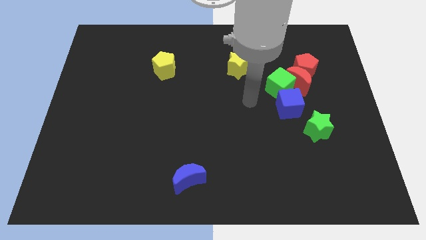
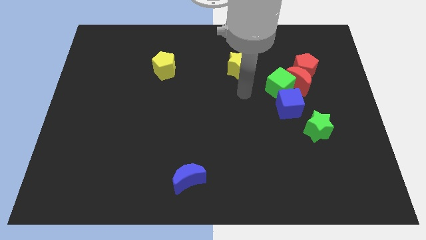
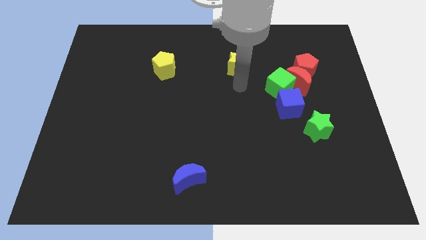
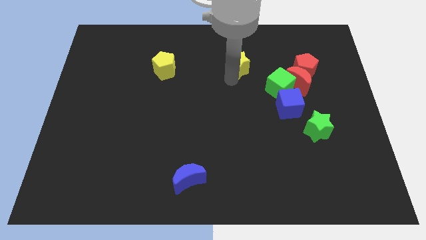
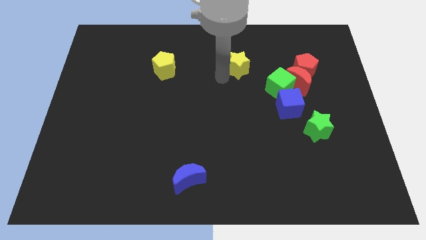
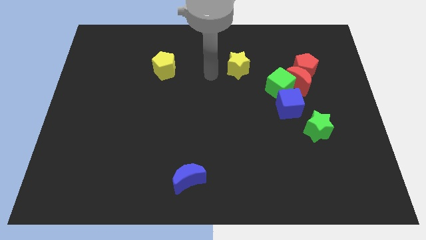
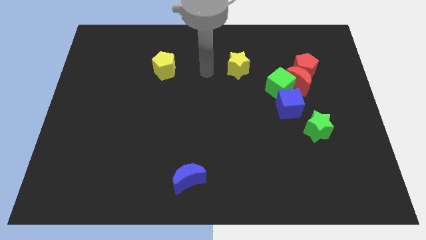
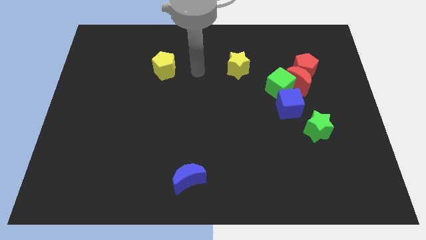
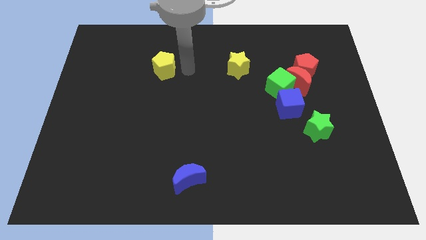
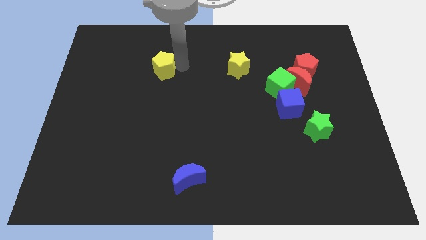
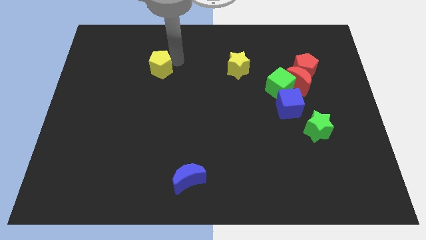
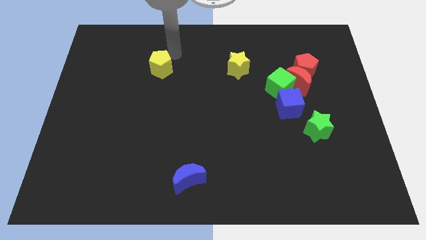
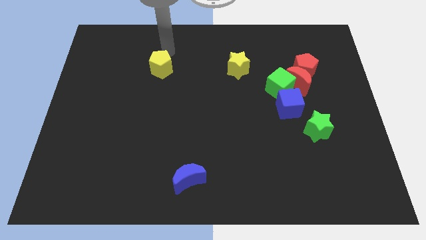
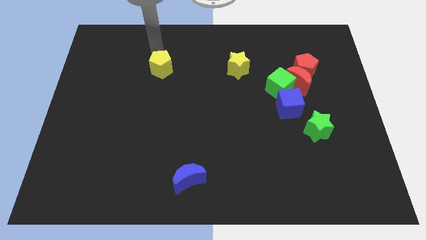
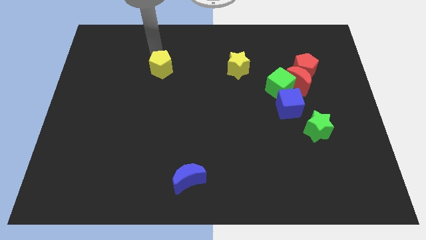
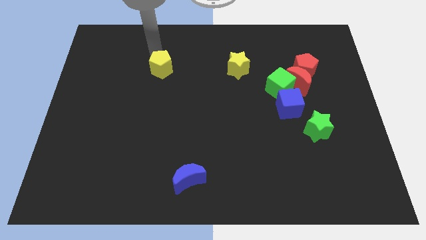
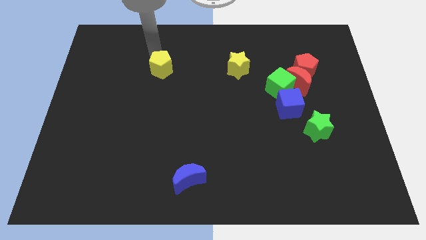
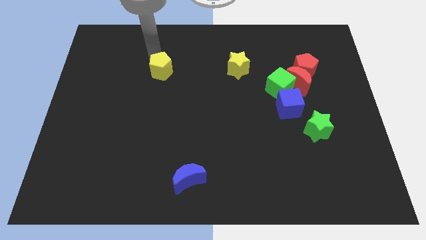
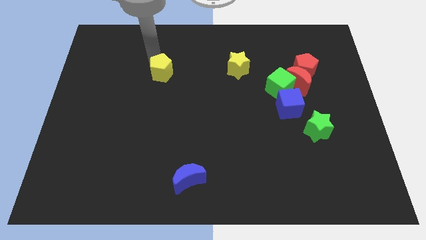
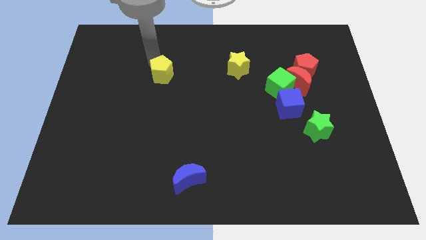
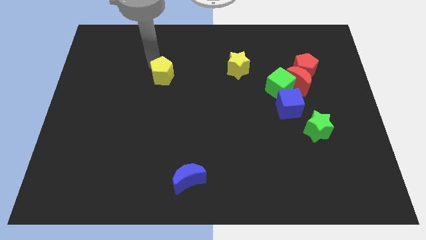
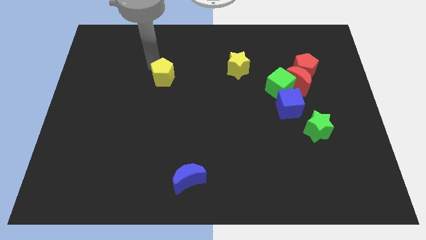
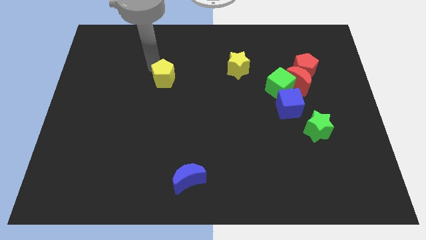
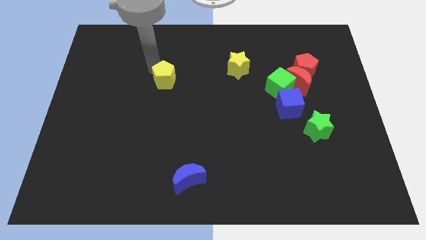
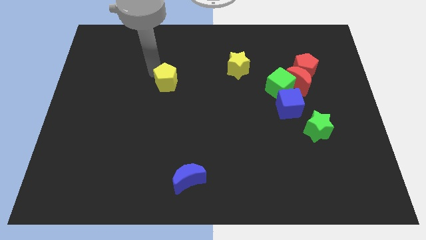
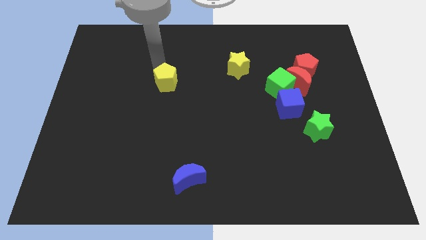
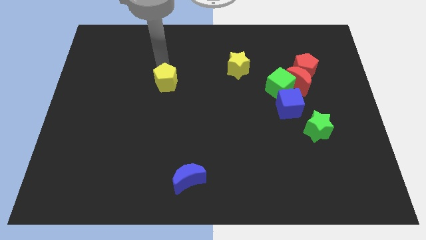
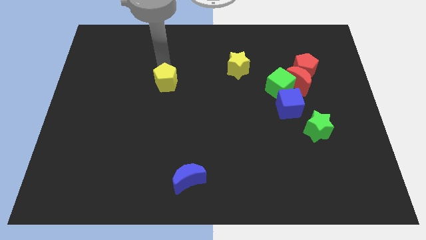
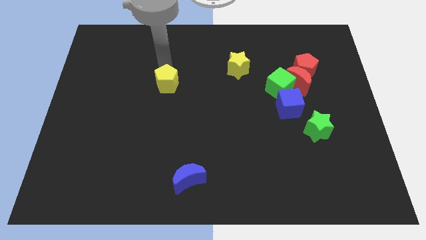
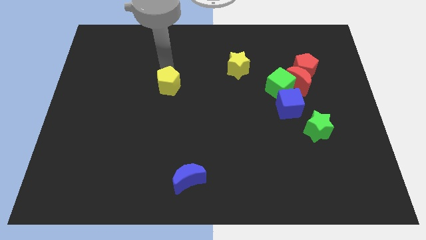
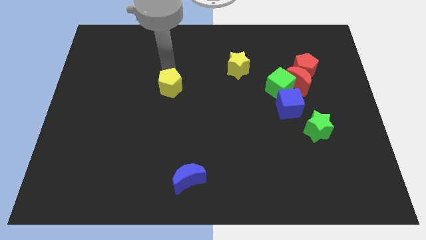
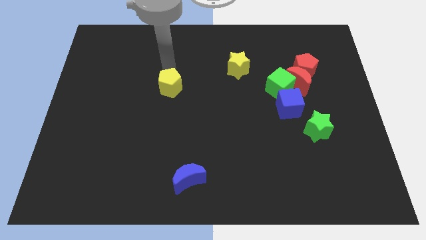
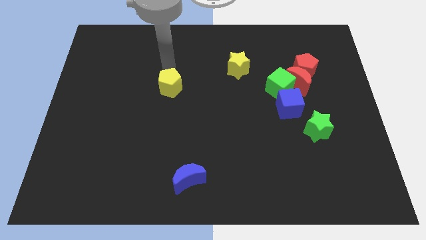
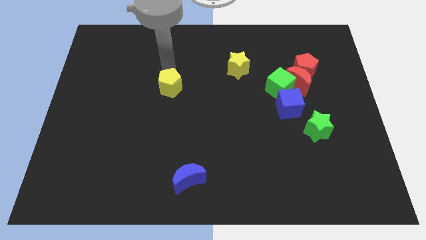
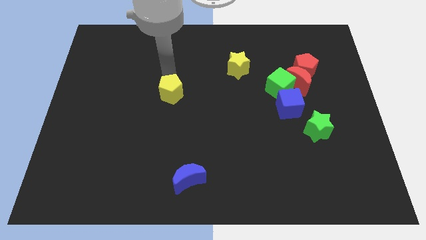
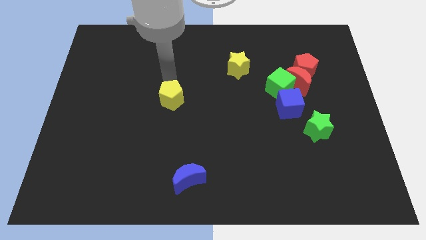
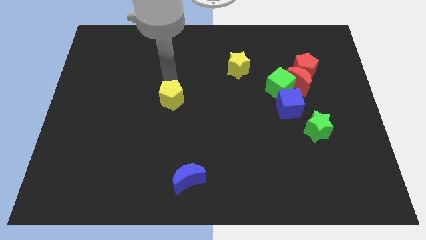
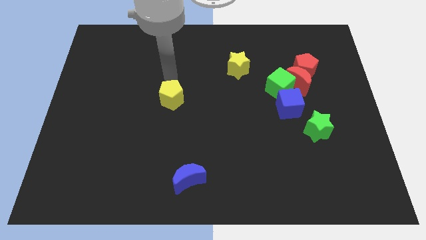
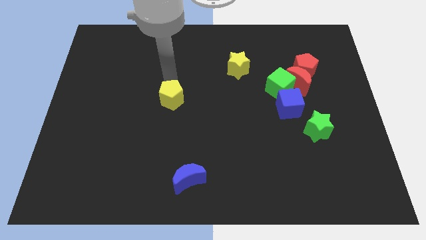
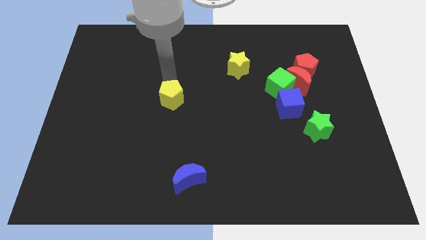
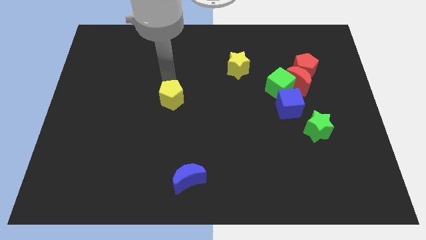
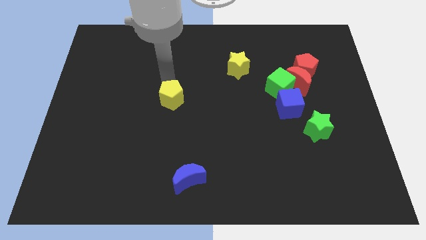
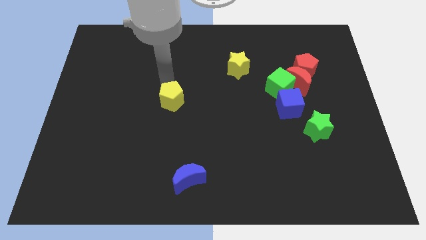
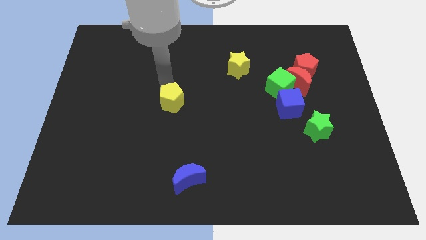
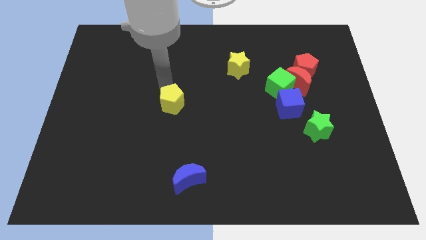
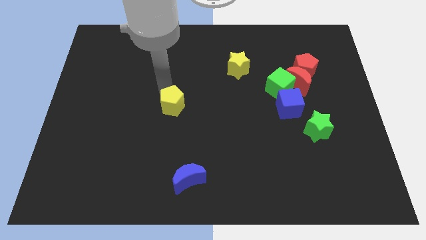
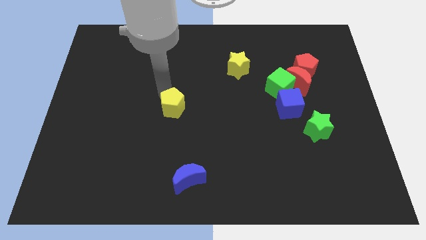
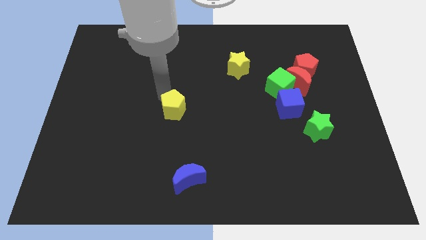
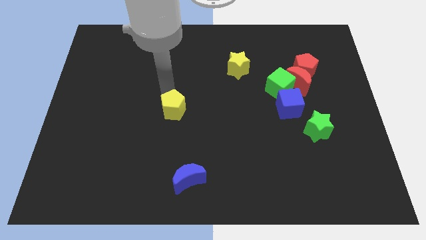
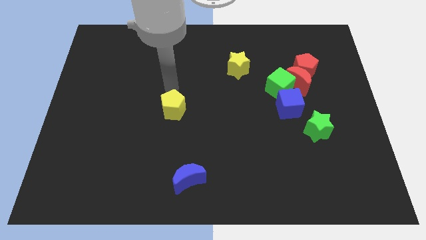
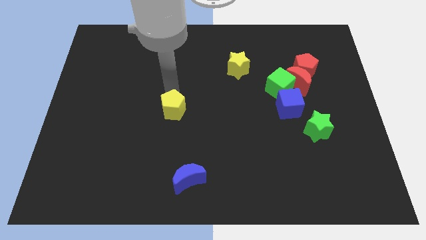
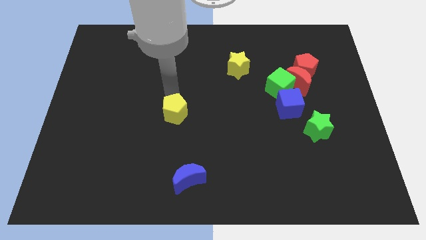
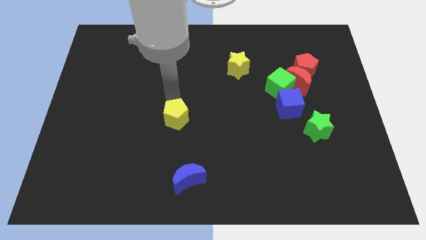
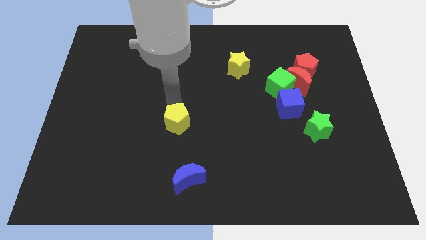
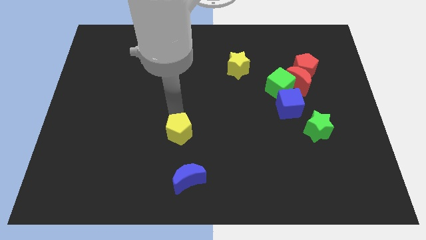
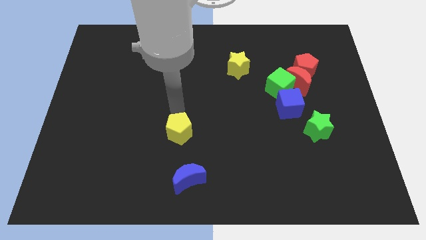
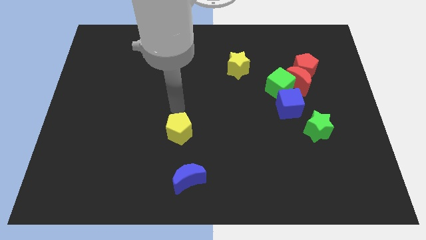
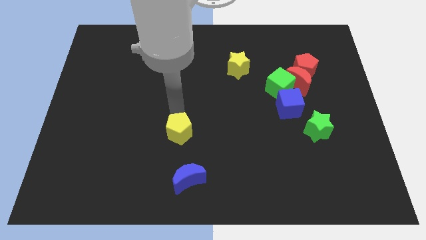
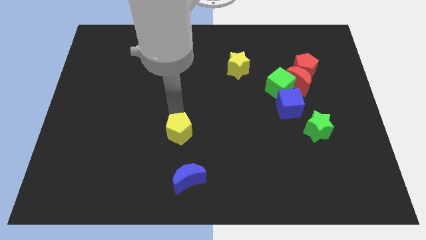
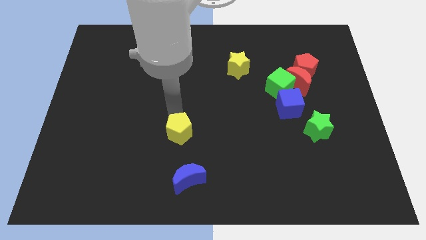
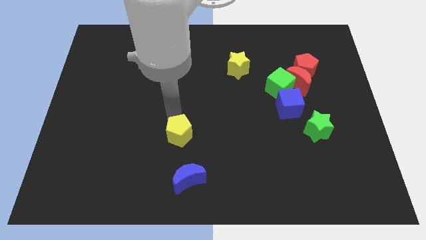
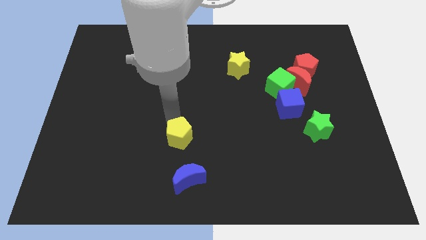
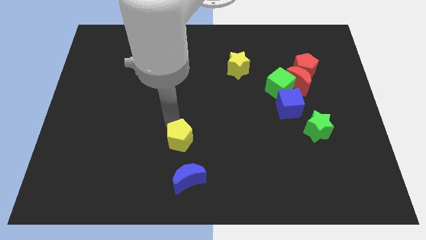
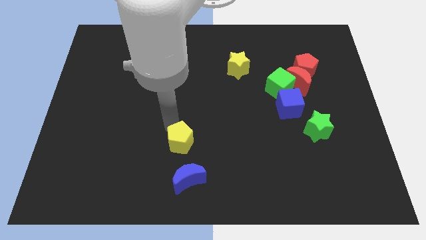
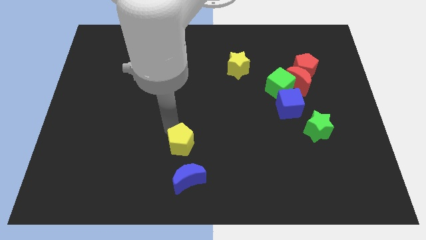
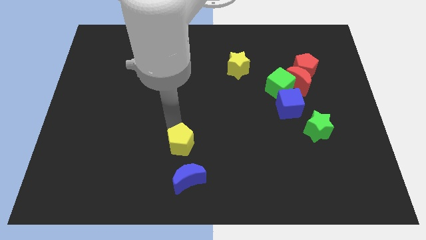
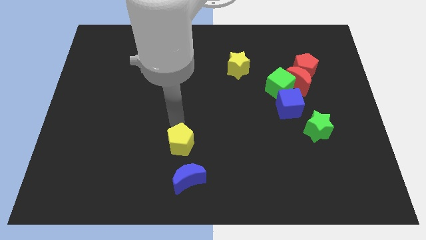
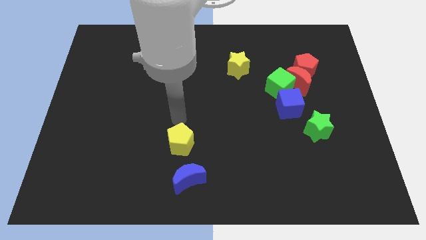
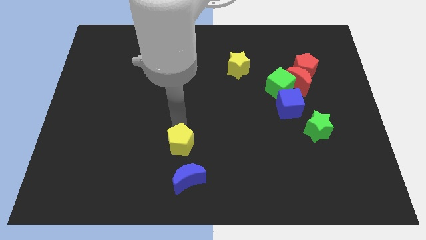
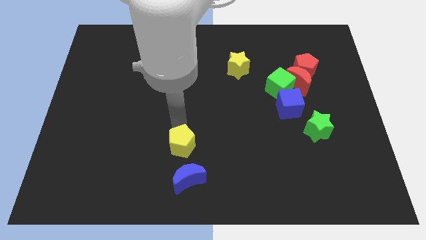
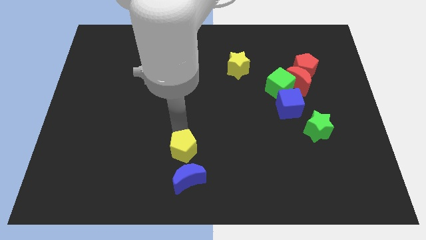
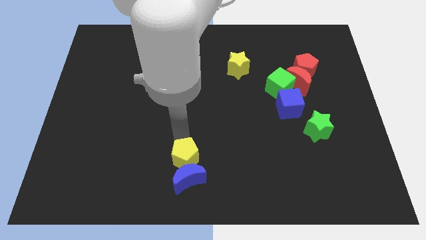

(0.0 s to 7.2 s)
put the yellow pentagon to the blue moon
